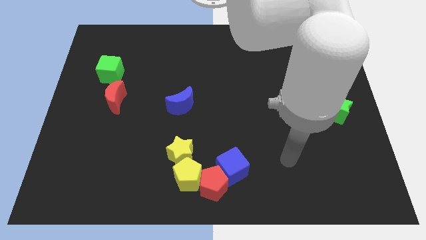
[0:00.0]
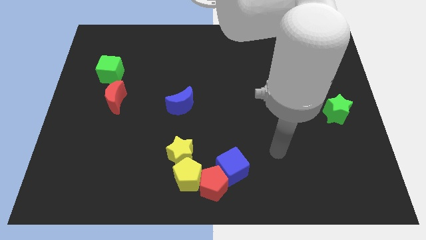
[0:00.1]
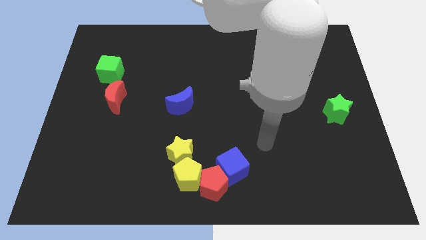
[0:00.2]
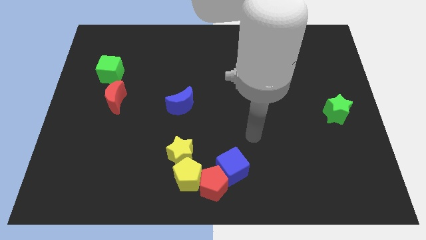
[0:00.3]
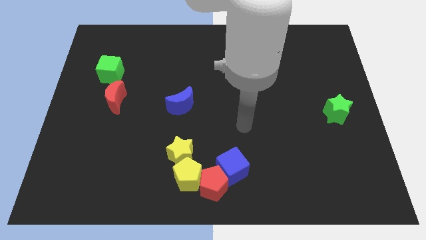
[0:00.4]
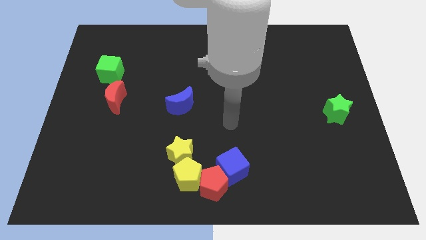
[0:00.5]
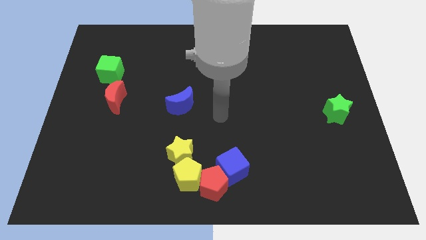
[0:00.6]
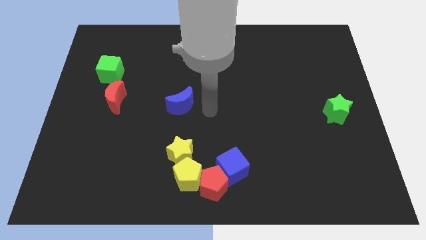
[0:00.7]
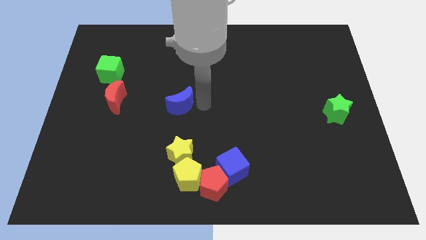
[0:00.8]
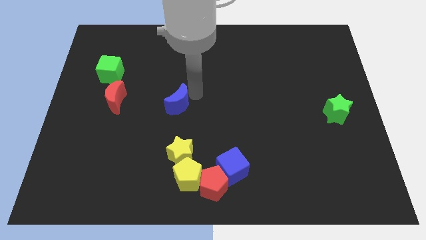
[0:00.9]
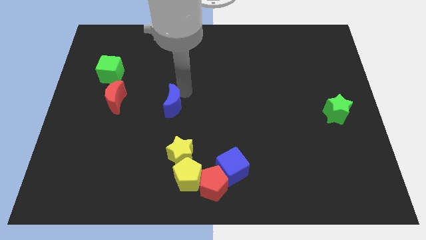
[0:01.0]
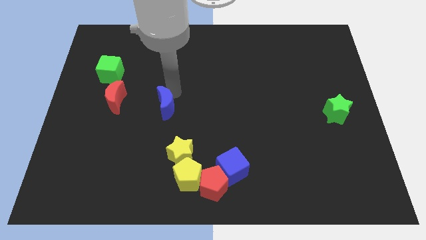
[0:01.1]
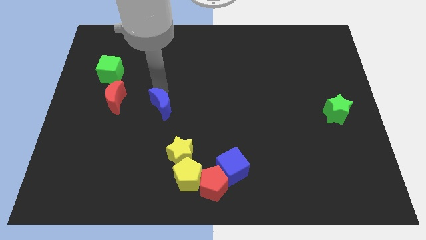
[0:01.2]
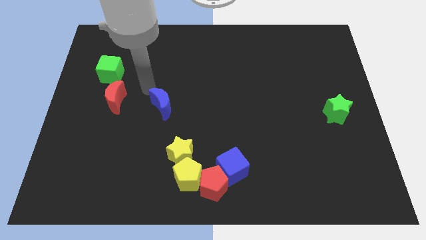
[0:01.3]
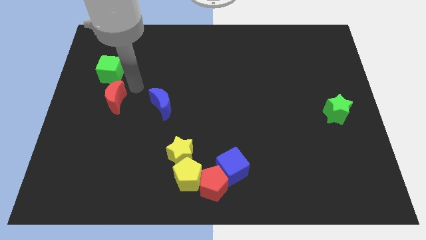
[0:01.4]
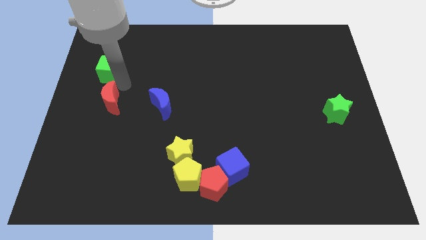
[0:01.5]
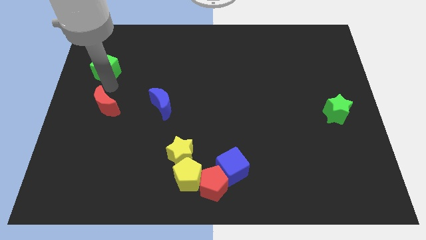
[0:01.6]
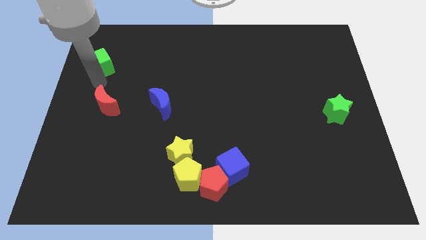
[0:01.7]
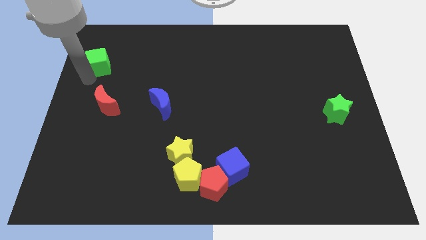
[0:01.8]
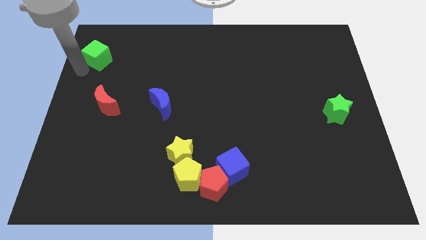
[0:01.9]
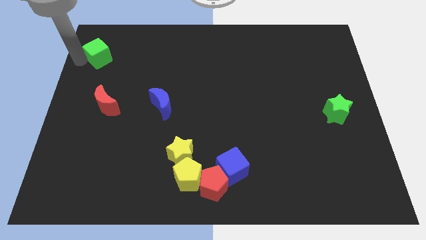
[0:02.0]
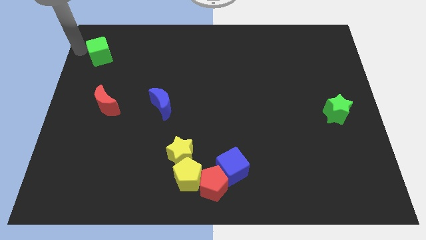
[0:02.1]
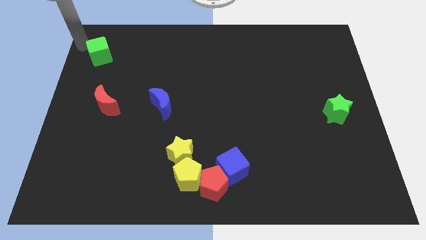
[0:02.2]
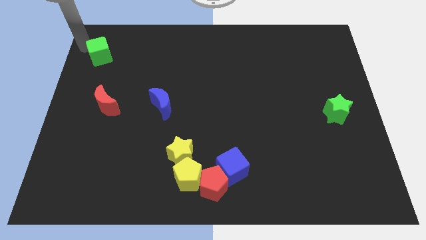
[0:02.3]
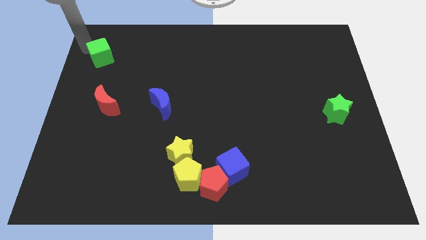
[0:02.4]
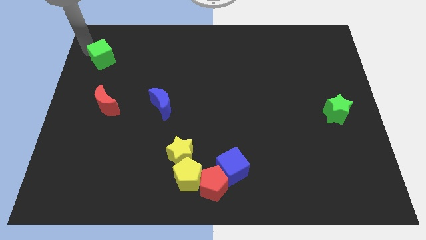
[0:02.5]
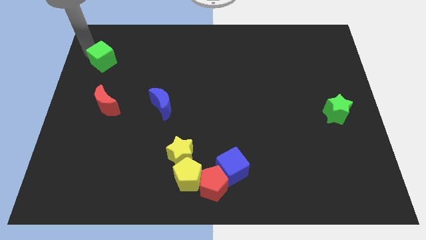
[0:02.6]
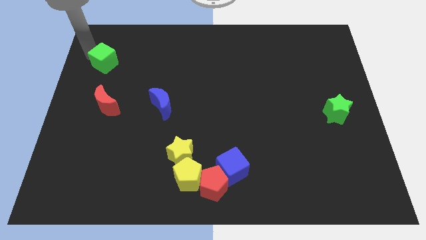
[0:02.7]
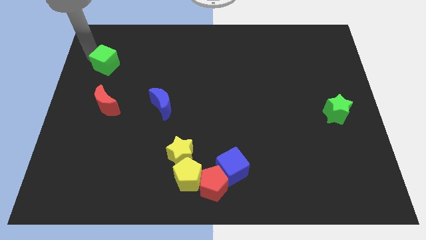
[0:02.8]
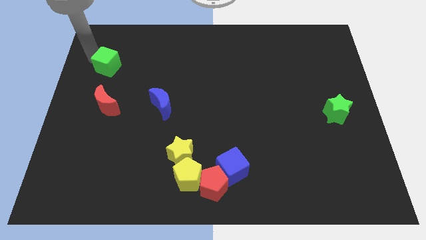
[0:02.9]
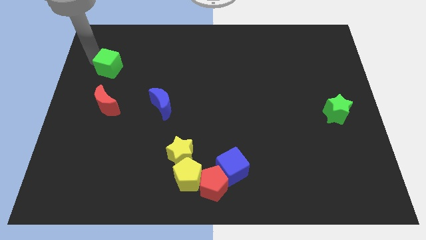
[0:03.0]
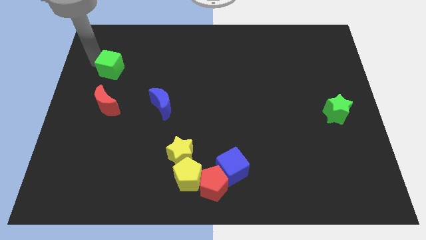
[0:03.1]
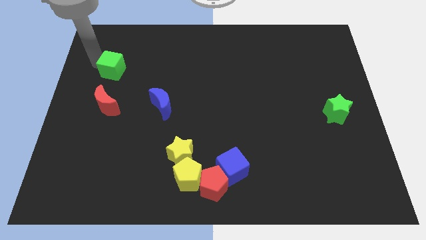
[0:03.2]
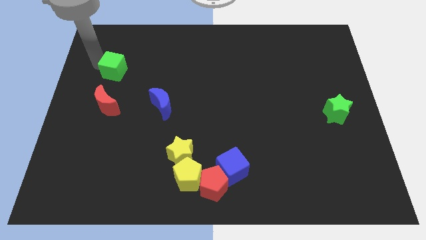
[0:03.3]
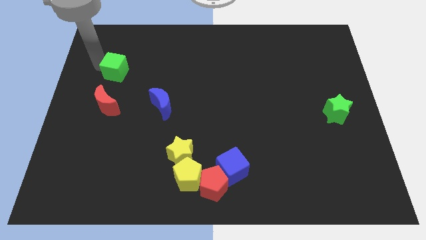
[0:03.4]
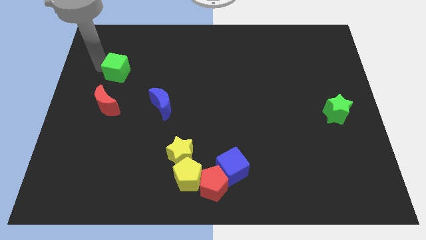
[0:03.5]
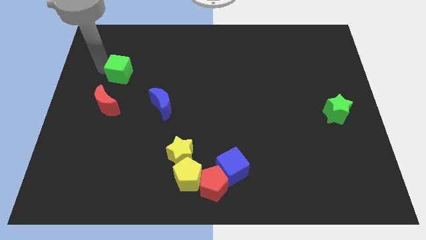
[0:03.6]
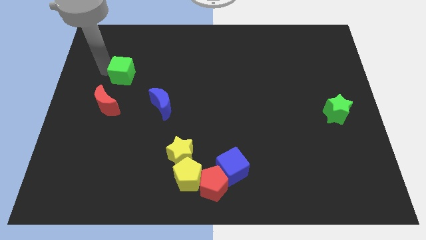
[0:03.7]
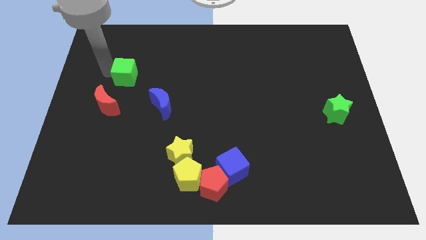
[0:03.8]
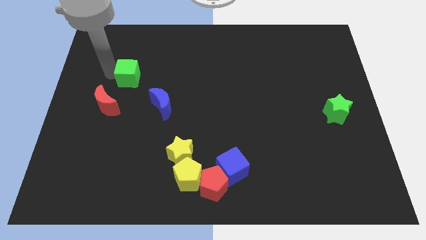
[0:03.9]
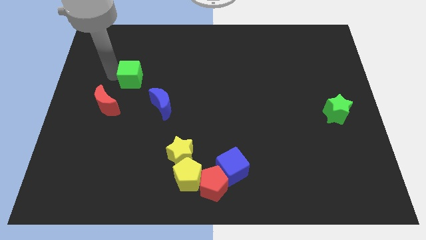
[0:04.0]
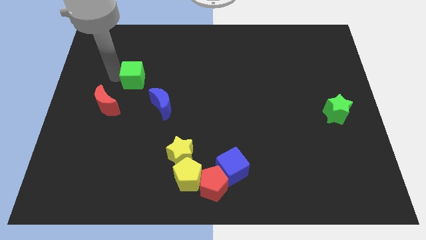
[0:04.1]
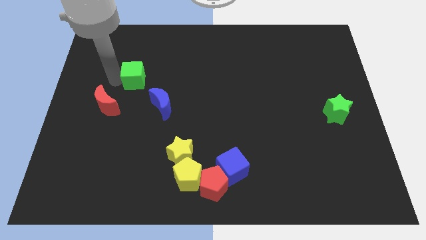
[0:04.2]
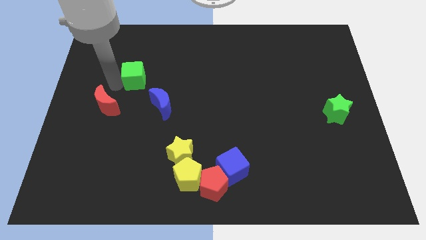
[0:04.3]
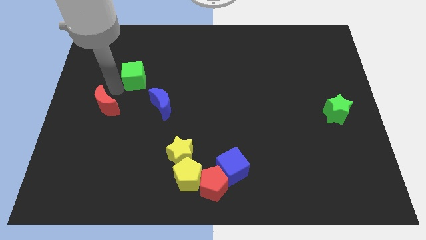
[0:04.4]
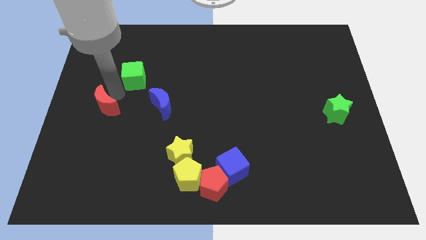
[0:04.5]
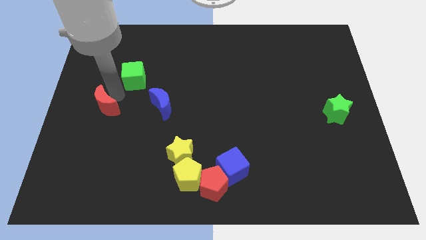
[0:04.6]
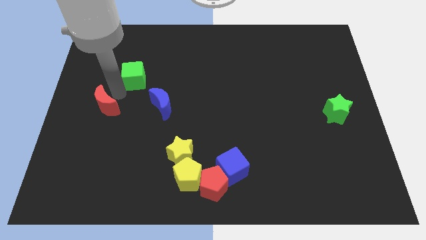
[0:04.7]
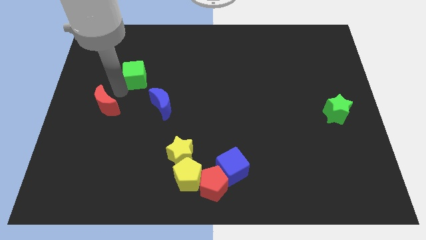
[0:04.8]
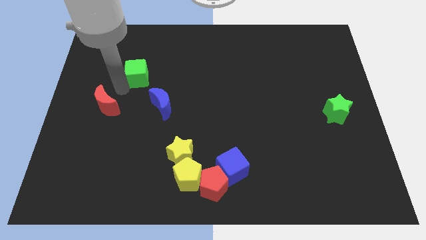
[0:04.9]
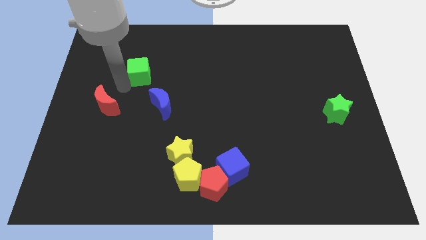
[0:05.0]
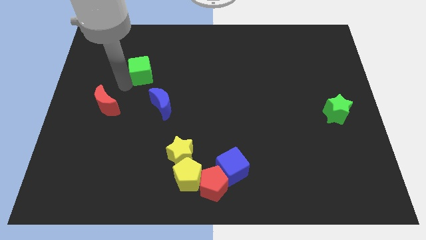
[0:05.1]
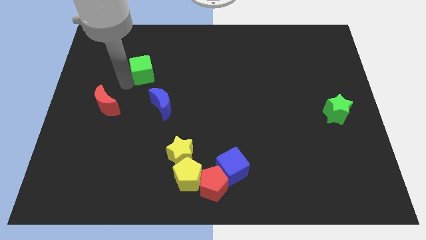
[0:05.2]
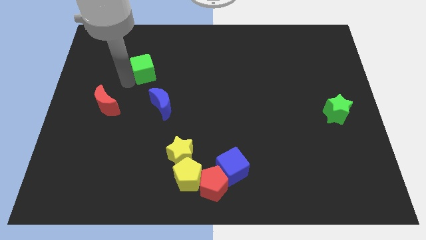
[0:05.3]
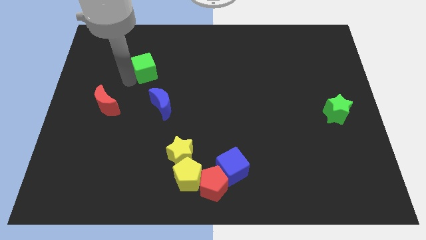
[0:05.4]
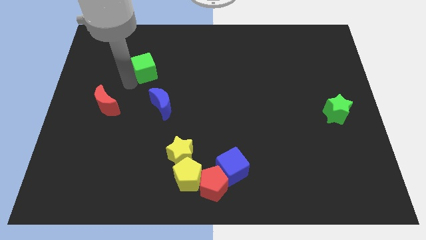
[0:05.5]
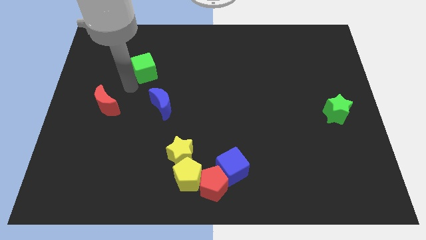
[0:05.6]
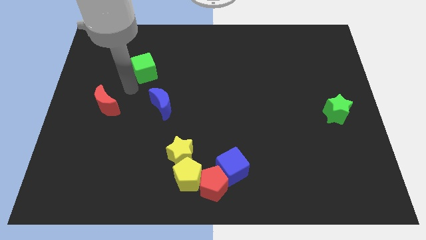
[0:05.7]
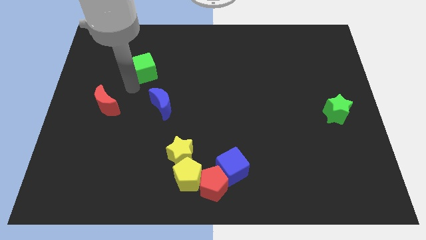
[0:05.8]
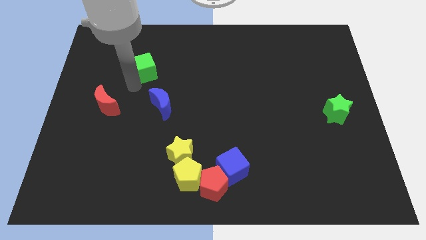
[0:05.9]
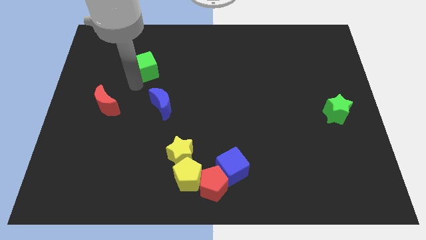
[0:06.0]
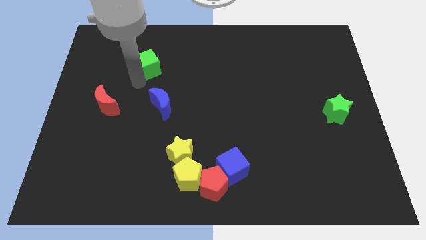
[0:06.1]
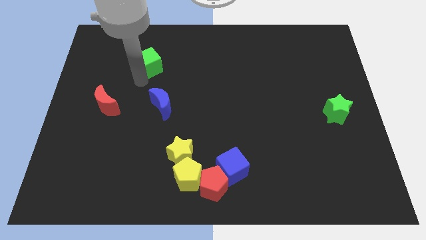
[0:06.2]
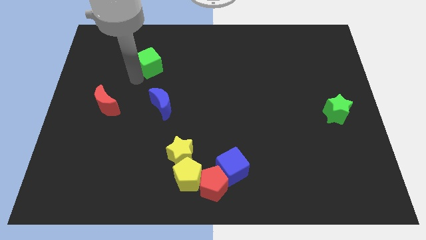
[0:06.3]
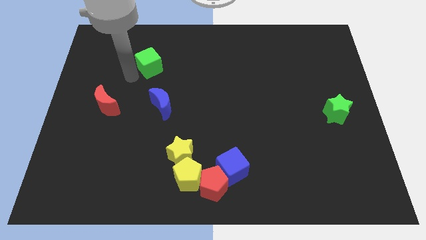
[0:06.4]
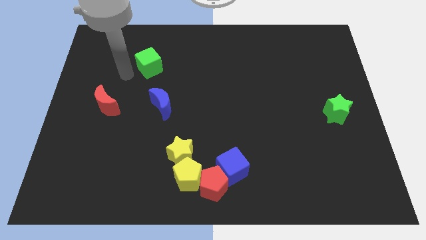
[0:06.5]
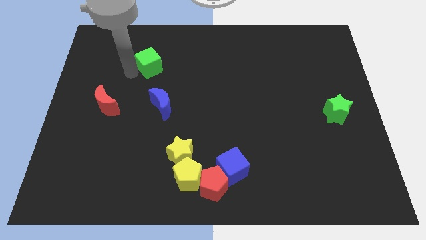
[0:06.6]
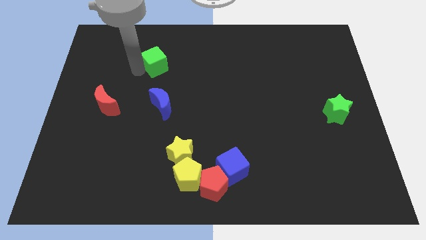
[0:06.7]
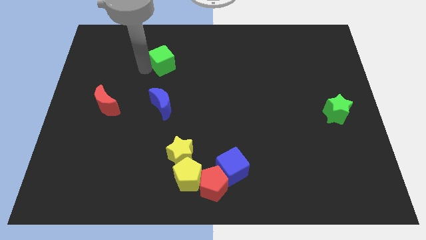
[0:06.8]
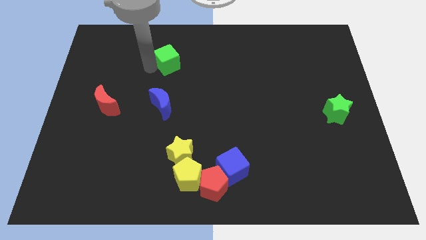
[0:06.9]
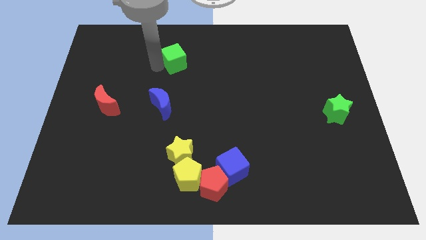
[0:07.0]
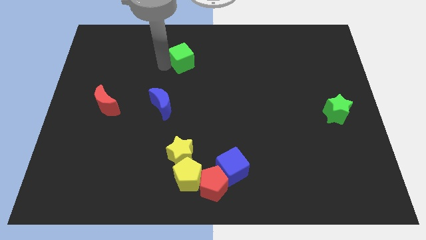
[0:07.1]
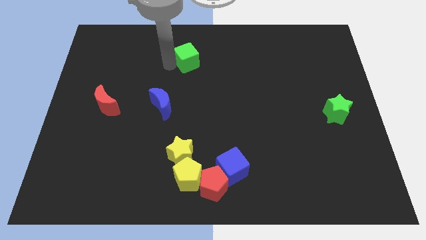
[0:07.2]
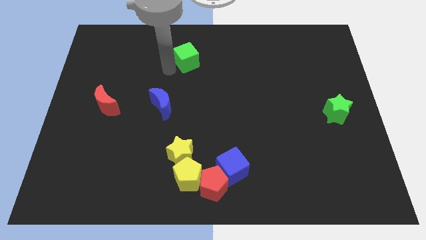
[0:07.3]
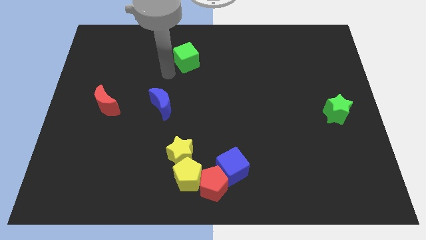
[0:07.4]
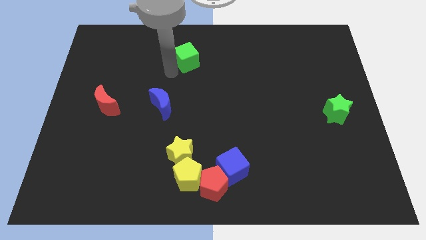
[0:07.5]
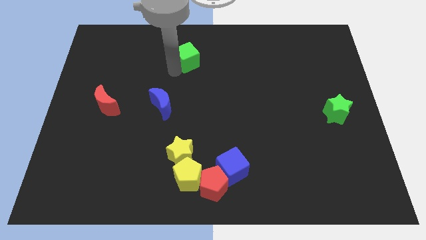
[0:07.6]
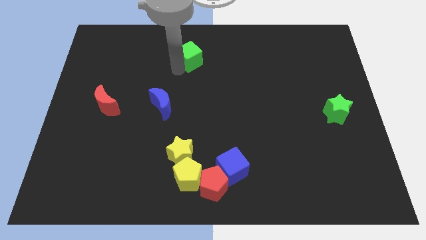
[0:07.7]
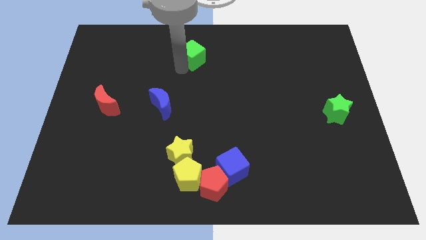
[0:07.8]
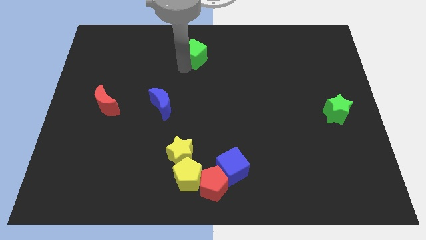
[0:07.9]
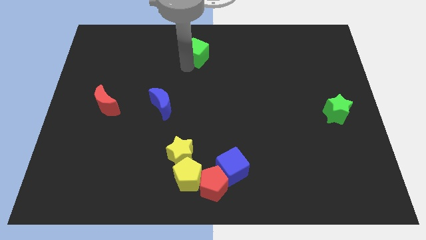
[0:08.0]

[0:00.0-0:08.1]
push the green cube to the top
